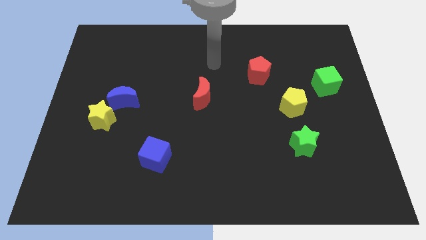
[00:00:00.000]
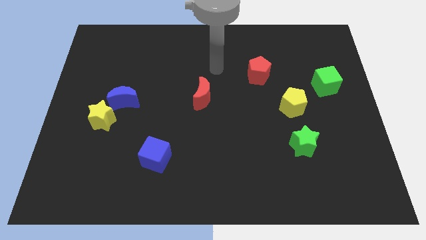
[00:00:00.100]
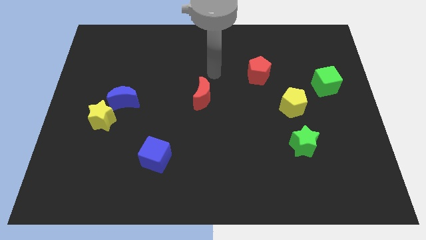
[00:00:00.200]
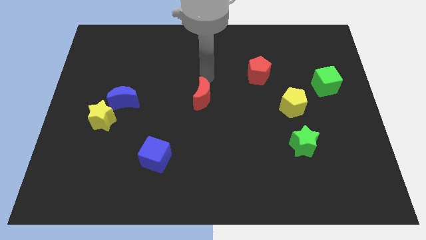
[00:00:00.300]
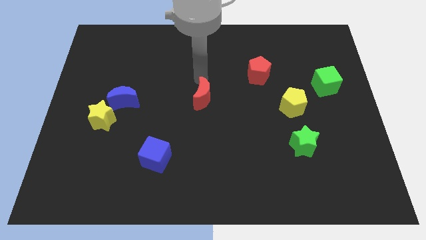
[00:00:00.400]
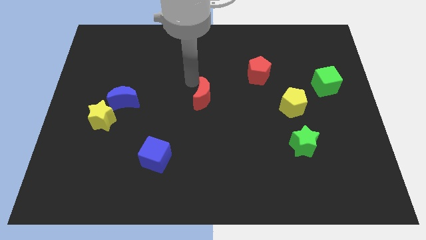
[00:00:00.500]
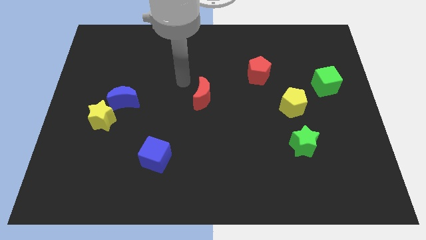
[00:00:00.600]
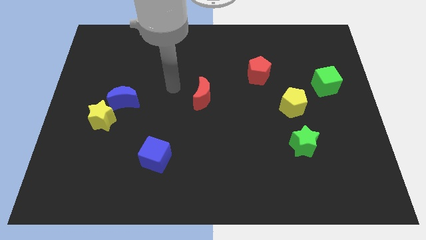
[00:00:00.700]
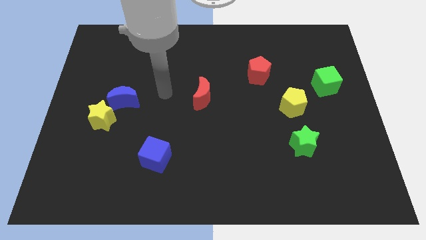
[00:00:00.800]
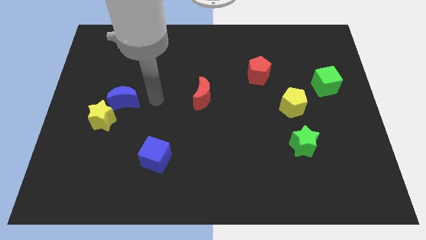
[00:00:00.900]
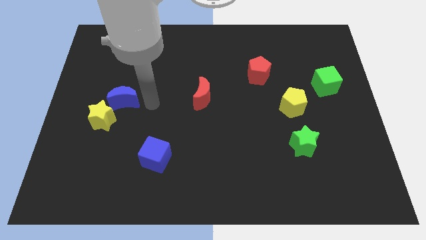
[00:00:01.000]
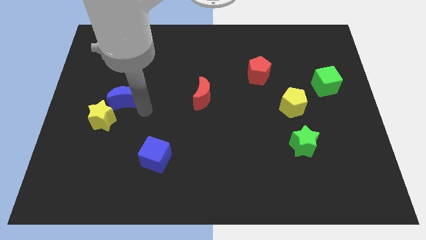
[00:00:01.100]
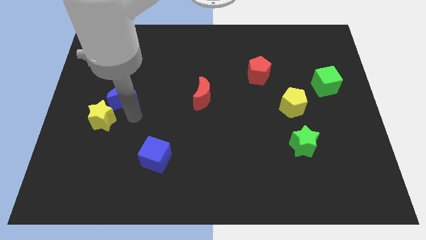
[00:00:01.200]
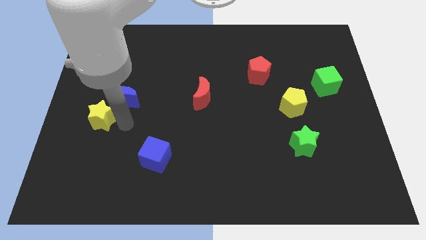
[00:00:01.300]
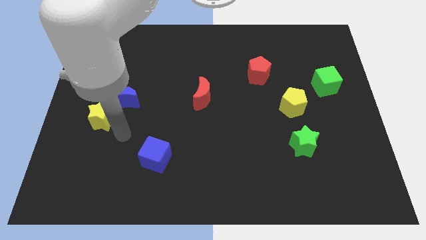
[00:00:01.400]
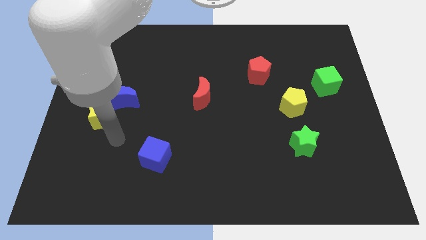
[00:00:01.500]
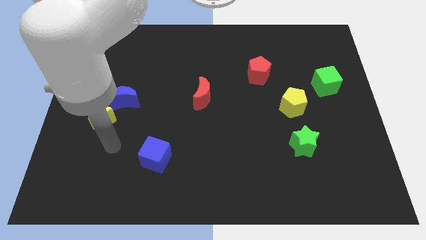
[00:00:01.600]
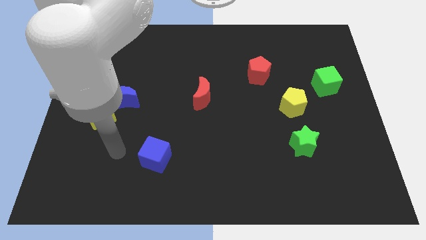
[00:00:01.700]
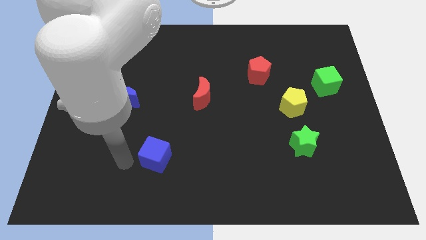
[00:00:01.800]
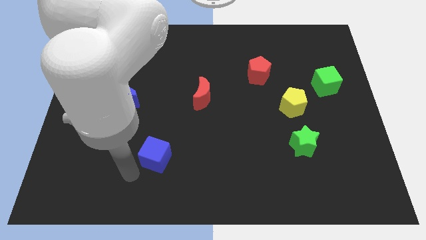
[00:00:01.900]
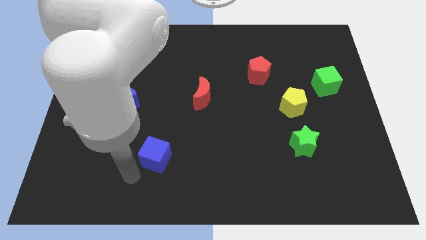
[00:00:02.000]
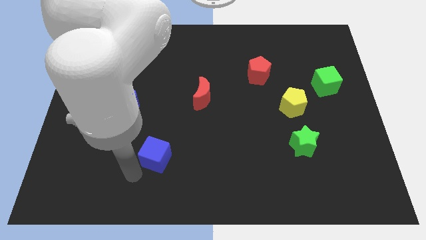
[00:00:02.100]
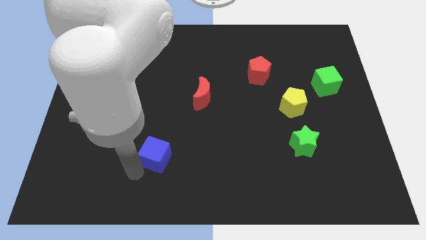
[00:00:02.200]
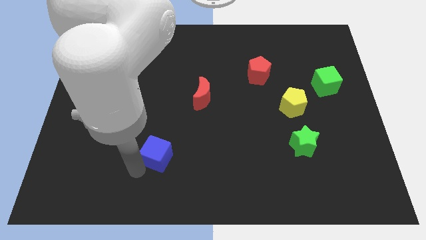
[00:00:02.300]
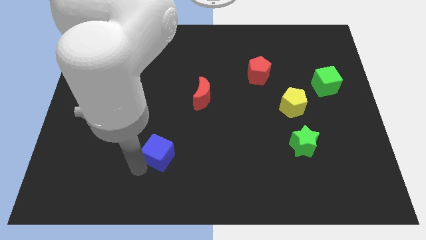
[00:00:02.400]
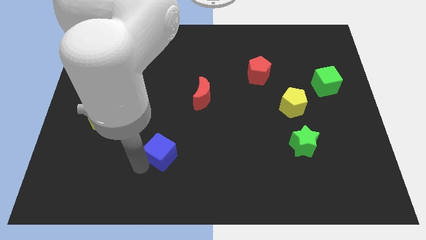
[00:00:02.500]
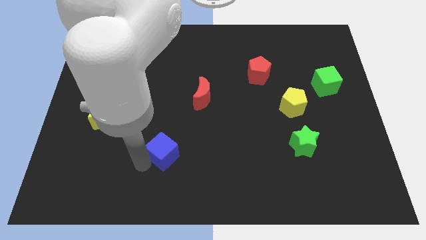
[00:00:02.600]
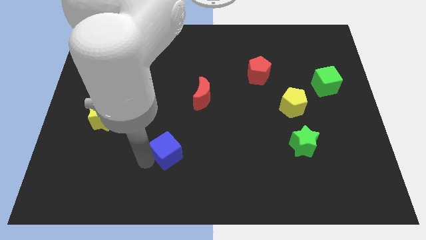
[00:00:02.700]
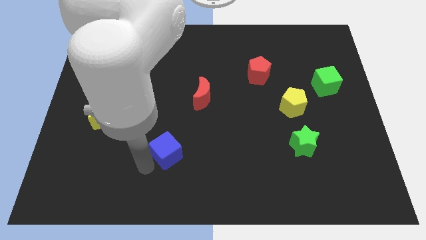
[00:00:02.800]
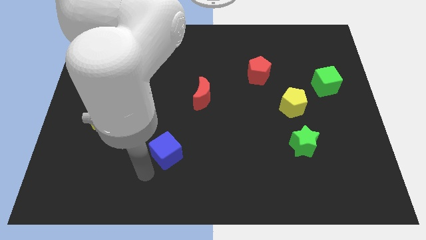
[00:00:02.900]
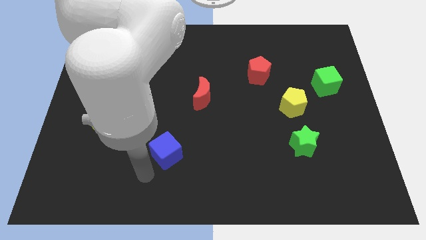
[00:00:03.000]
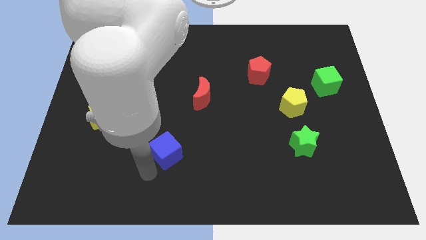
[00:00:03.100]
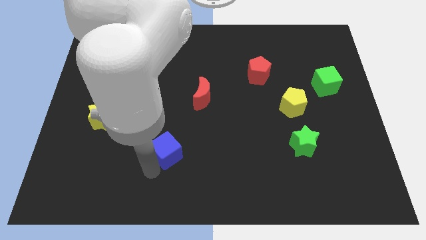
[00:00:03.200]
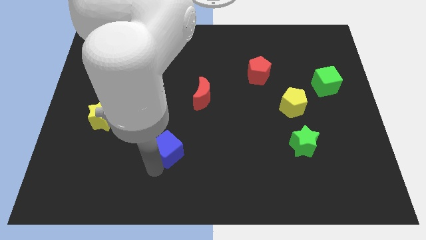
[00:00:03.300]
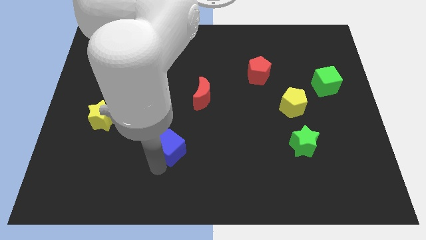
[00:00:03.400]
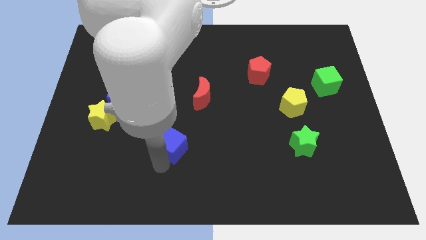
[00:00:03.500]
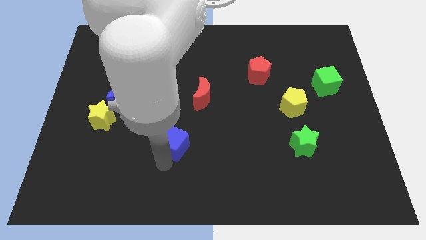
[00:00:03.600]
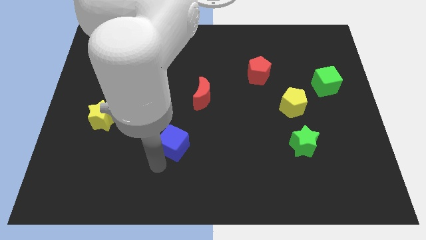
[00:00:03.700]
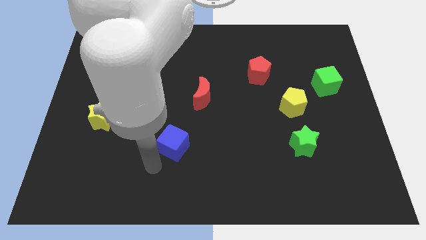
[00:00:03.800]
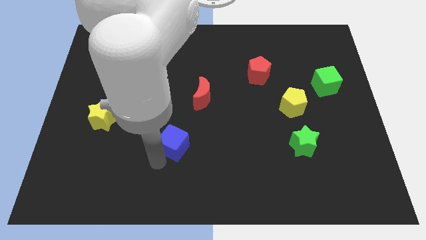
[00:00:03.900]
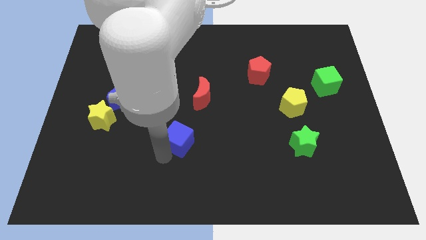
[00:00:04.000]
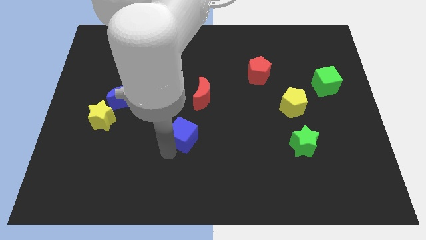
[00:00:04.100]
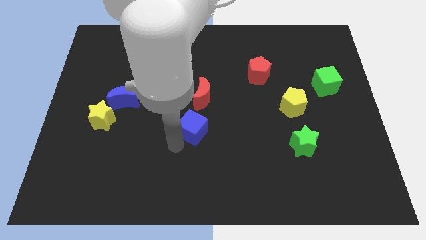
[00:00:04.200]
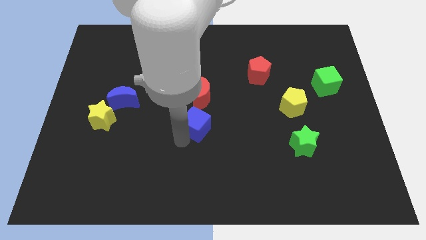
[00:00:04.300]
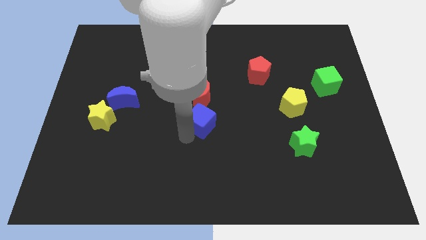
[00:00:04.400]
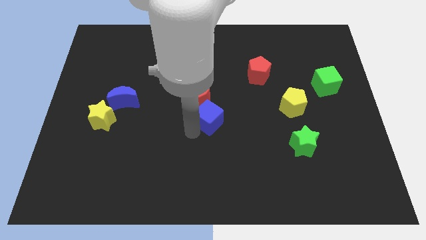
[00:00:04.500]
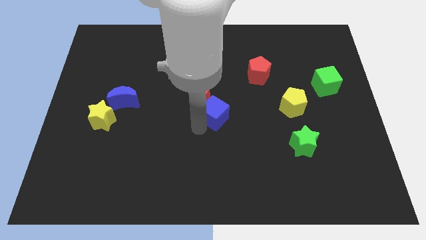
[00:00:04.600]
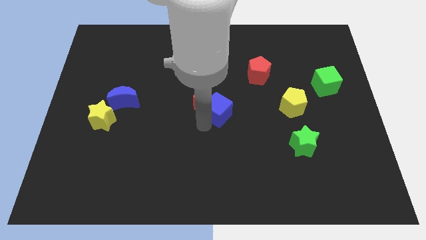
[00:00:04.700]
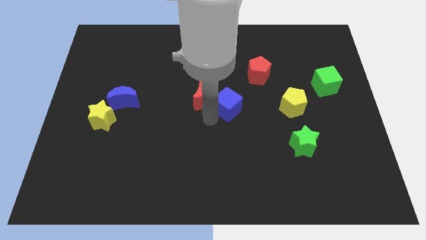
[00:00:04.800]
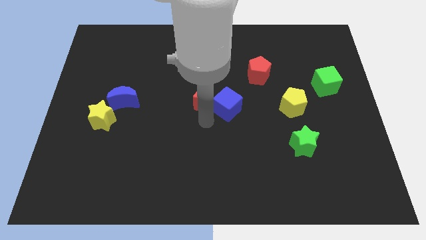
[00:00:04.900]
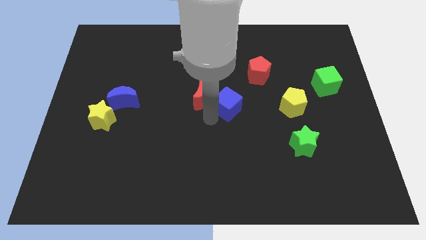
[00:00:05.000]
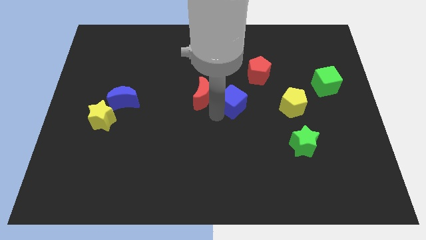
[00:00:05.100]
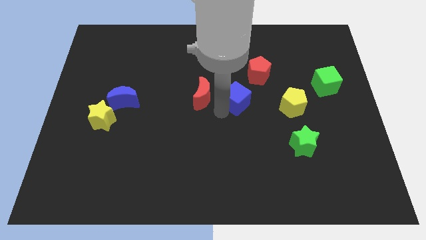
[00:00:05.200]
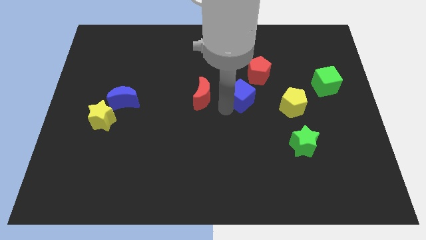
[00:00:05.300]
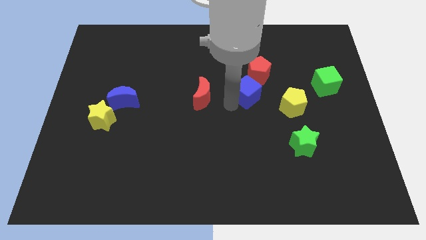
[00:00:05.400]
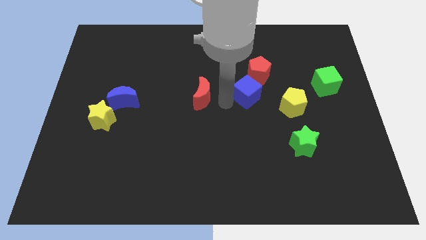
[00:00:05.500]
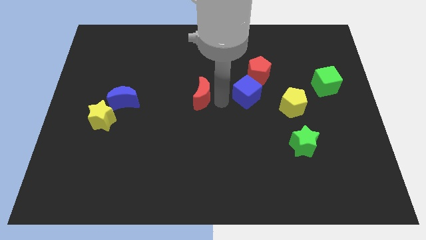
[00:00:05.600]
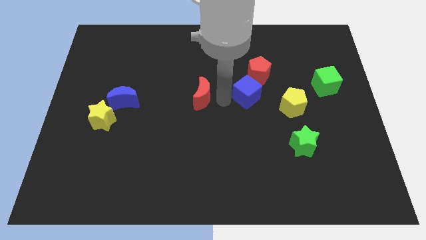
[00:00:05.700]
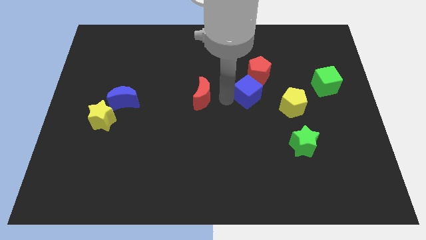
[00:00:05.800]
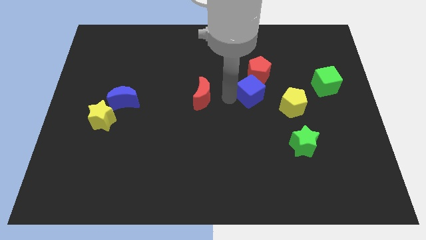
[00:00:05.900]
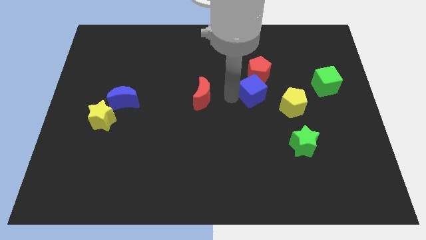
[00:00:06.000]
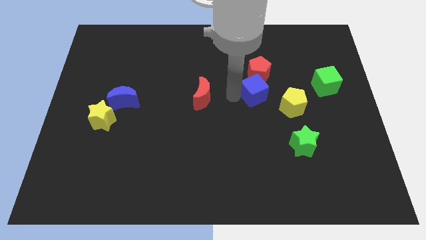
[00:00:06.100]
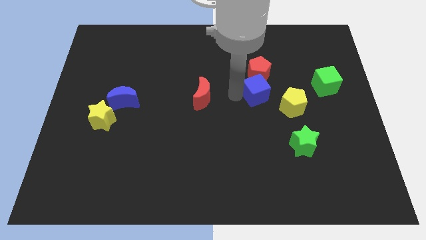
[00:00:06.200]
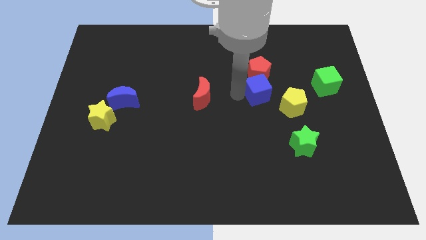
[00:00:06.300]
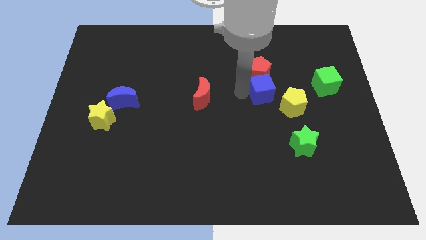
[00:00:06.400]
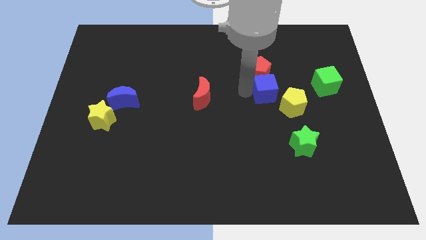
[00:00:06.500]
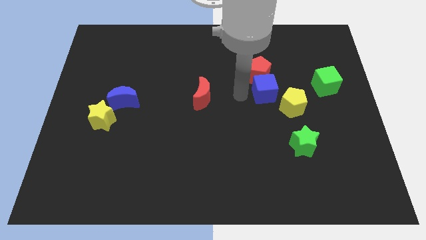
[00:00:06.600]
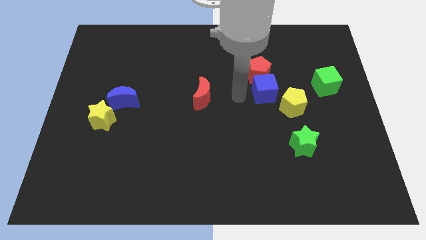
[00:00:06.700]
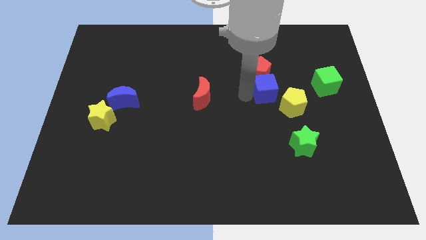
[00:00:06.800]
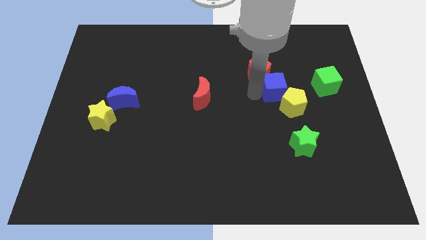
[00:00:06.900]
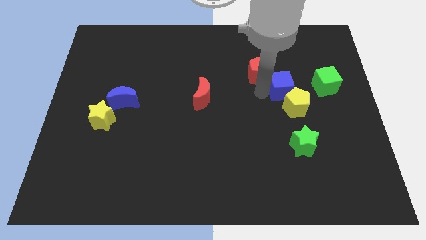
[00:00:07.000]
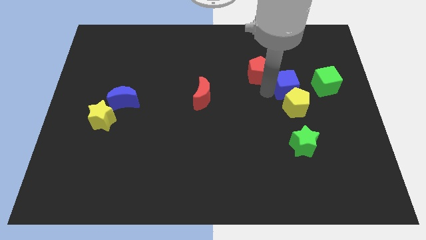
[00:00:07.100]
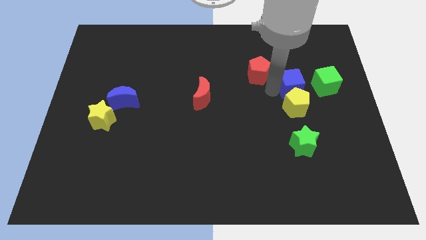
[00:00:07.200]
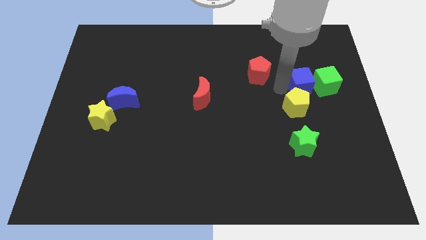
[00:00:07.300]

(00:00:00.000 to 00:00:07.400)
put the blue cube towards the green cube
